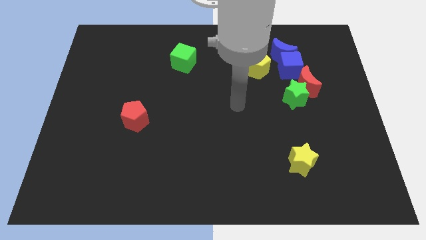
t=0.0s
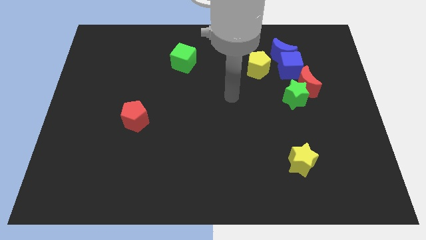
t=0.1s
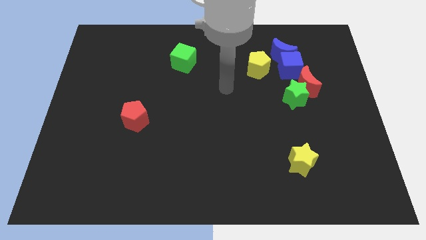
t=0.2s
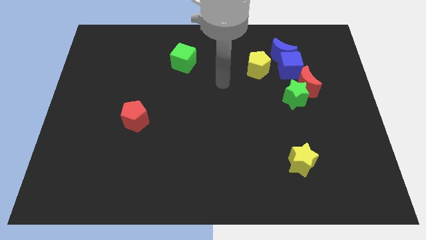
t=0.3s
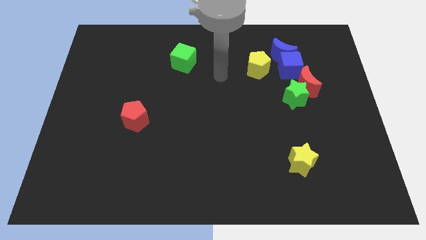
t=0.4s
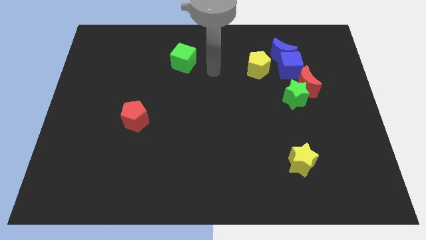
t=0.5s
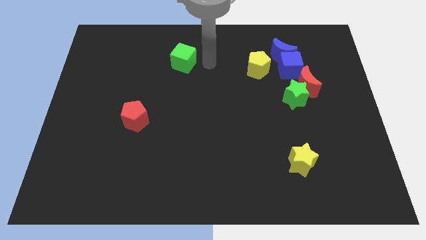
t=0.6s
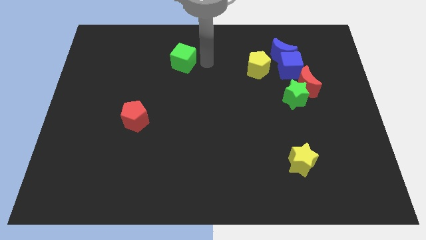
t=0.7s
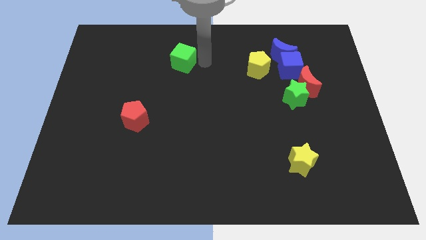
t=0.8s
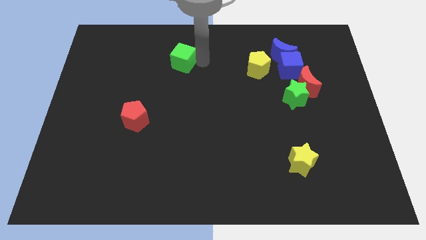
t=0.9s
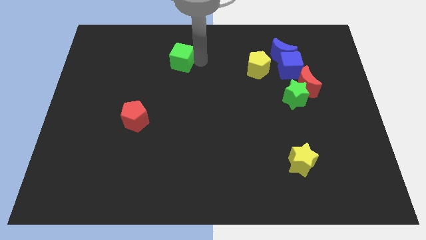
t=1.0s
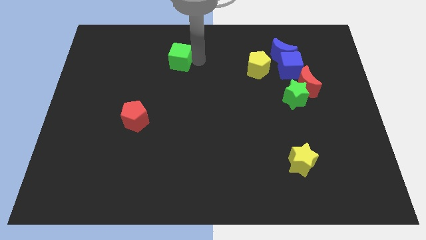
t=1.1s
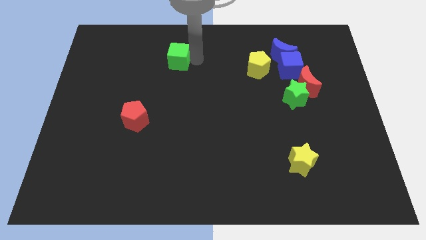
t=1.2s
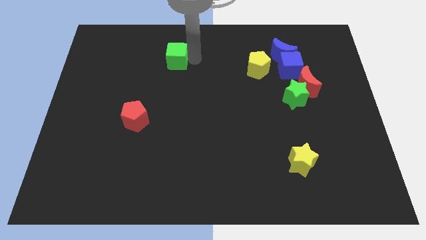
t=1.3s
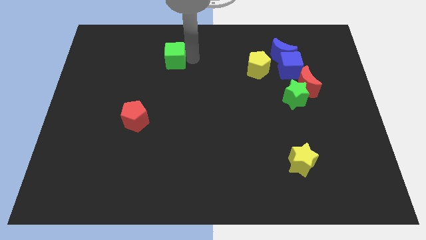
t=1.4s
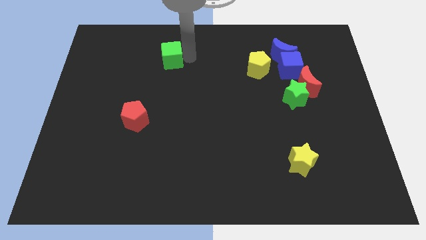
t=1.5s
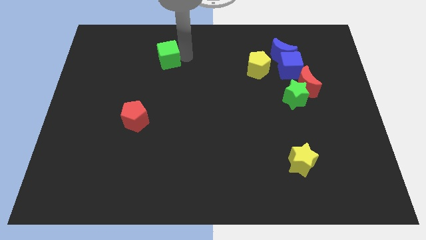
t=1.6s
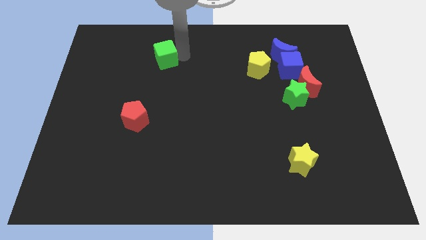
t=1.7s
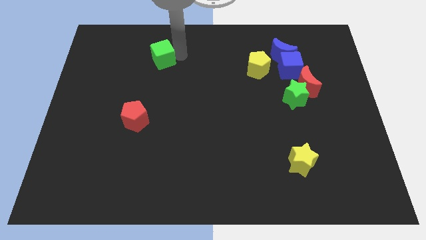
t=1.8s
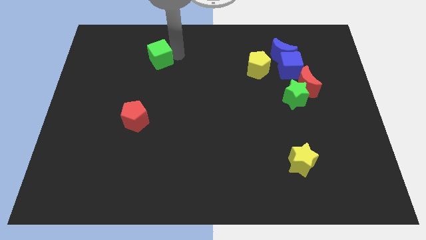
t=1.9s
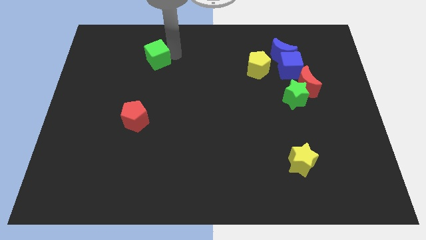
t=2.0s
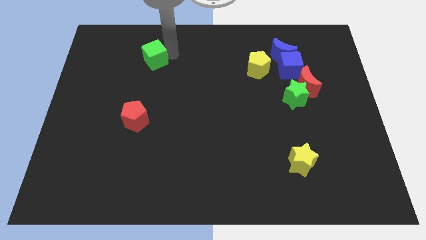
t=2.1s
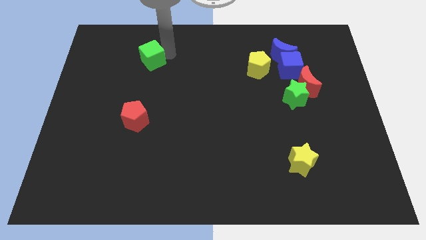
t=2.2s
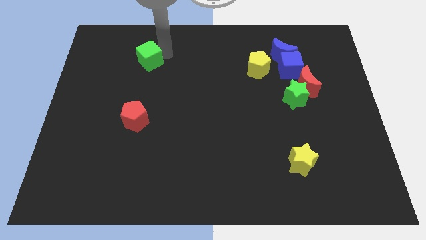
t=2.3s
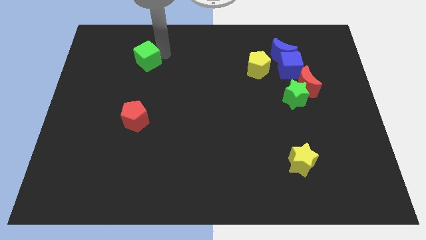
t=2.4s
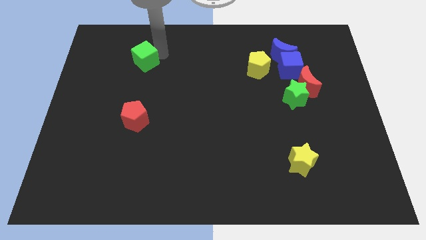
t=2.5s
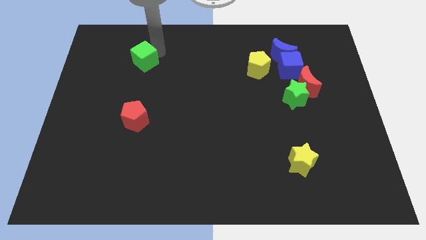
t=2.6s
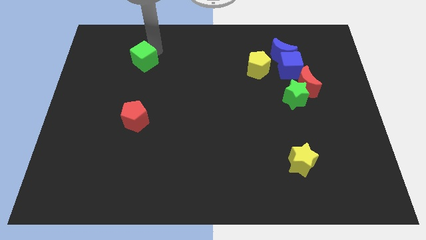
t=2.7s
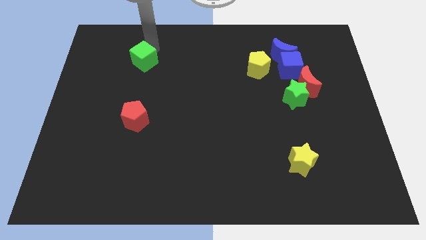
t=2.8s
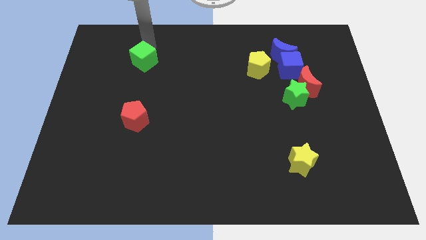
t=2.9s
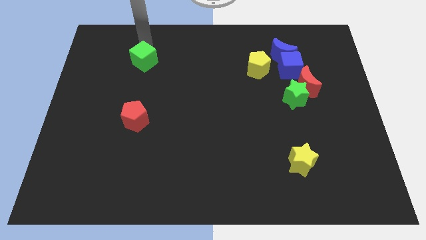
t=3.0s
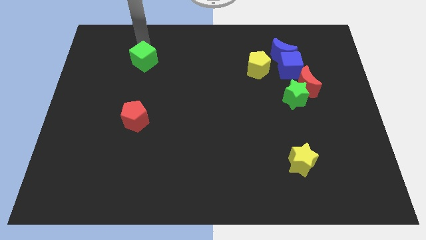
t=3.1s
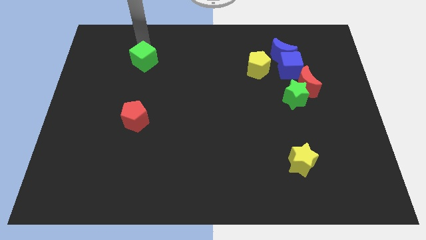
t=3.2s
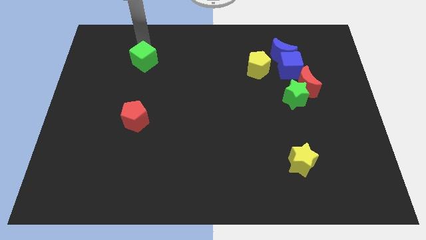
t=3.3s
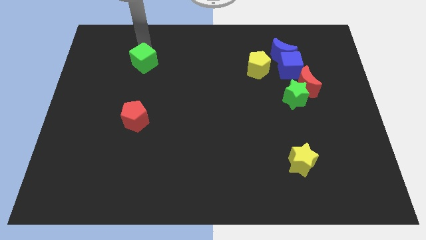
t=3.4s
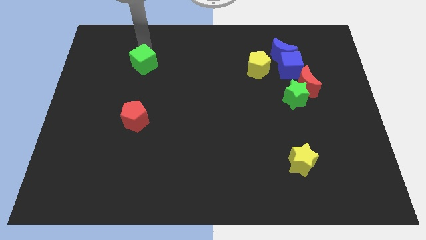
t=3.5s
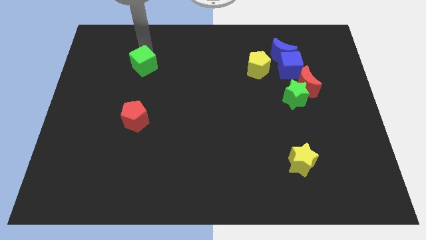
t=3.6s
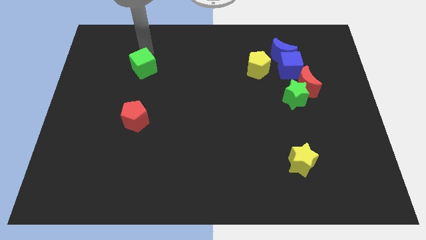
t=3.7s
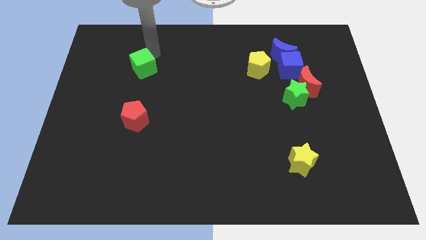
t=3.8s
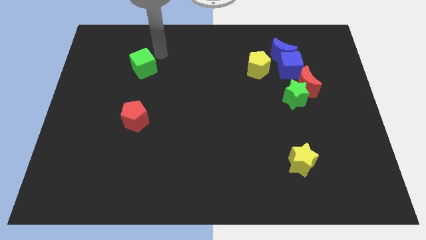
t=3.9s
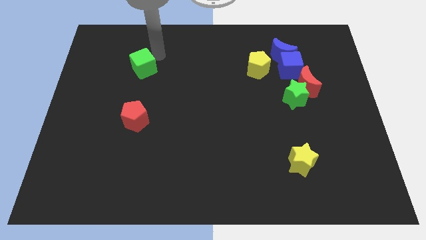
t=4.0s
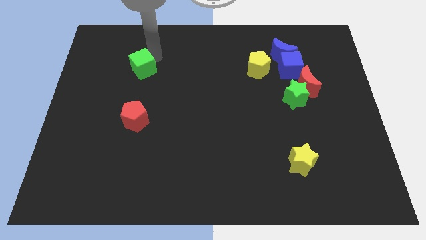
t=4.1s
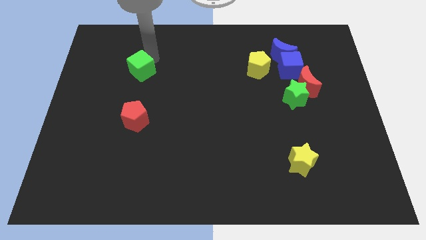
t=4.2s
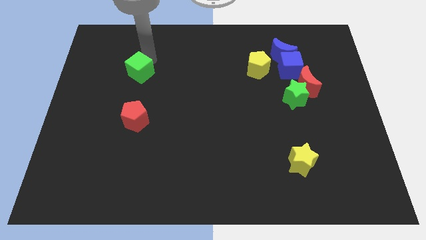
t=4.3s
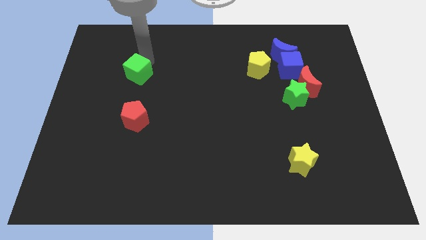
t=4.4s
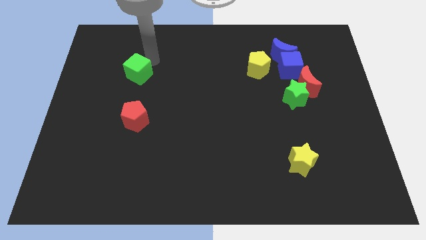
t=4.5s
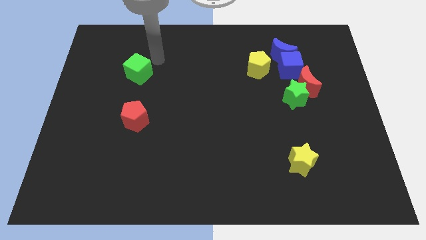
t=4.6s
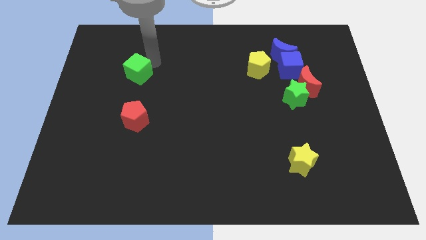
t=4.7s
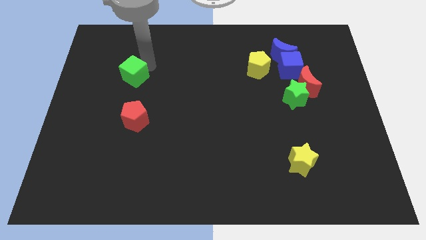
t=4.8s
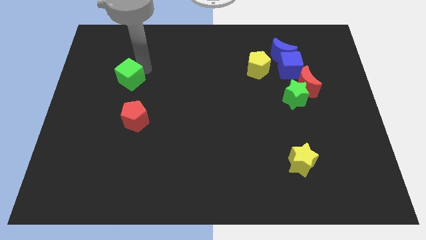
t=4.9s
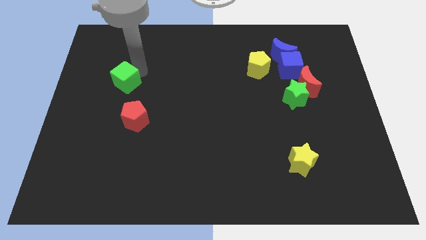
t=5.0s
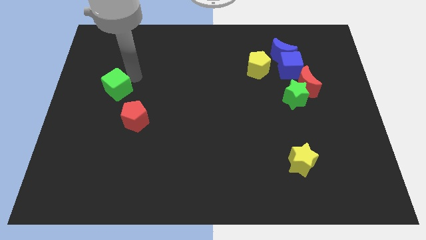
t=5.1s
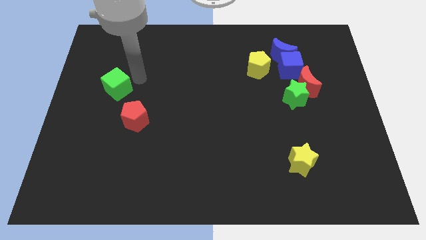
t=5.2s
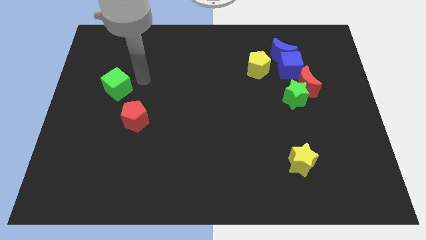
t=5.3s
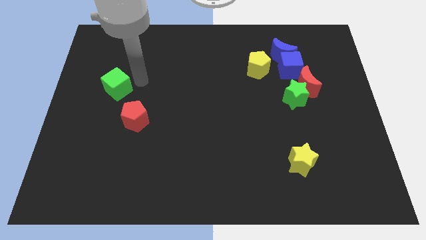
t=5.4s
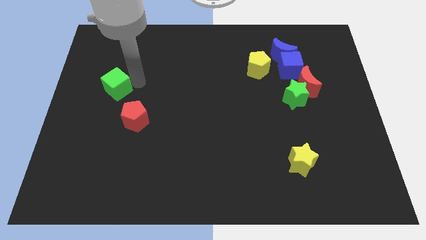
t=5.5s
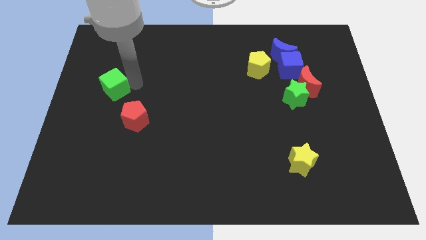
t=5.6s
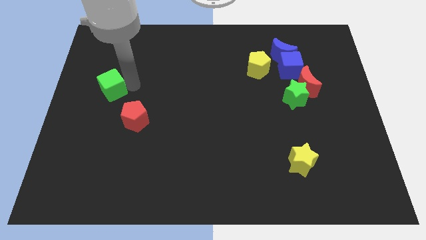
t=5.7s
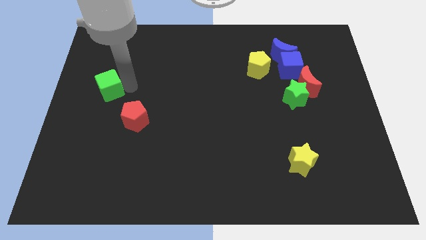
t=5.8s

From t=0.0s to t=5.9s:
slide the green cube to the left side of the board
